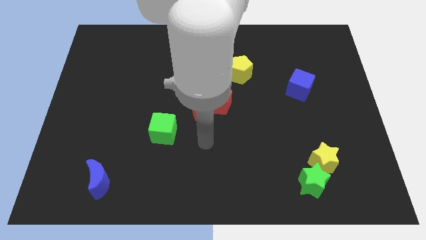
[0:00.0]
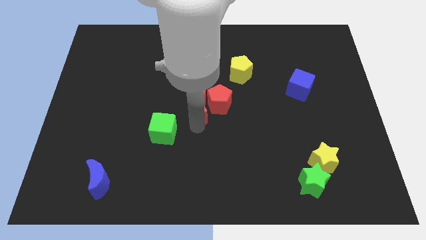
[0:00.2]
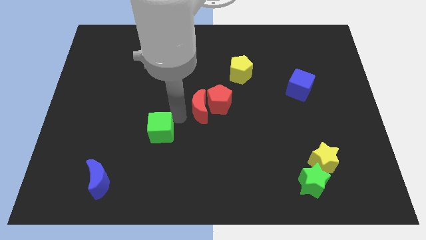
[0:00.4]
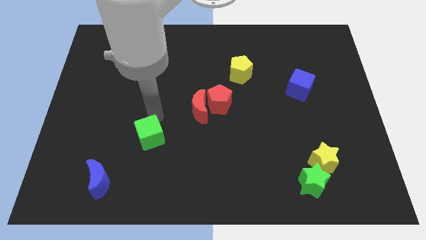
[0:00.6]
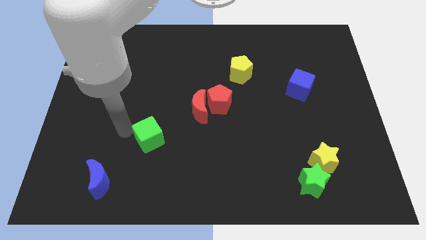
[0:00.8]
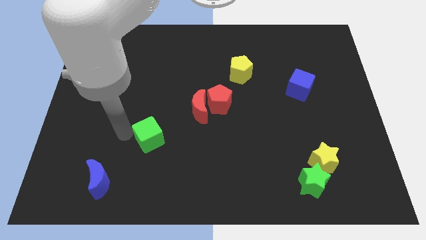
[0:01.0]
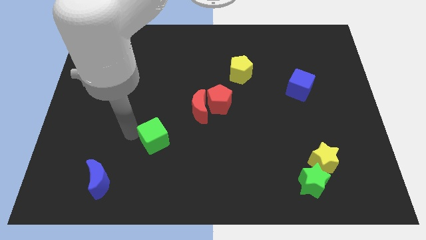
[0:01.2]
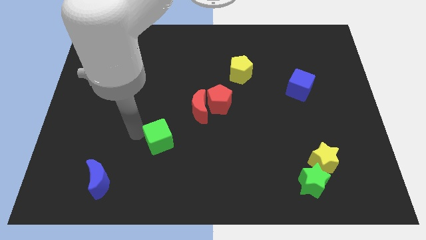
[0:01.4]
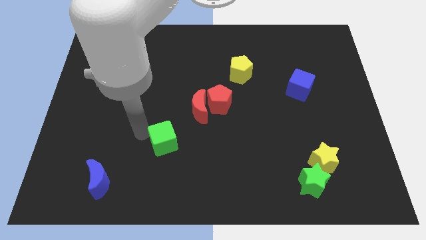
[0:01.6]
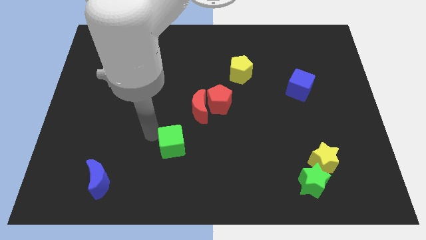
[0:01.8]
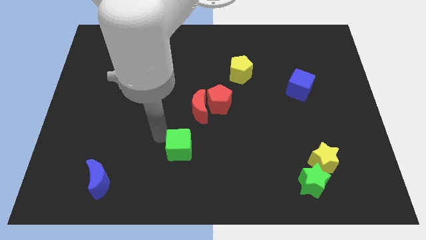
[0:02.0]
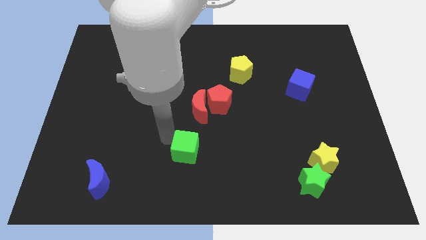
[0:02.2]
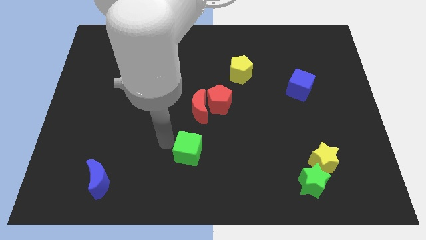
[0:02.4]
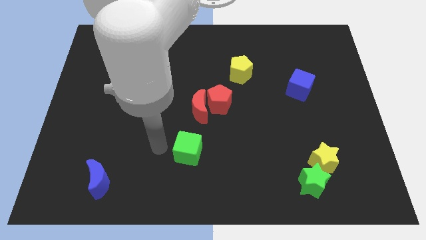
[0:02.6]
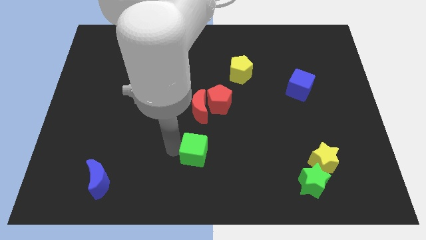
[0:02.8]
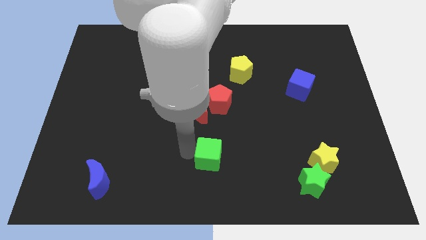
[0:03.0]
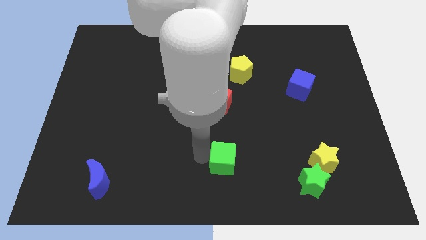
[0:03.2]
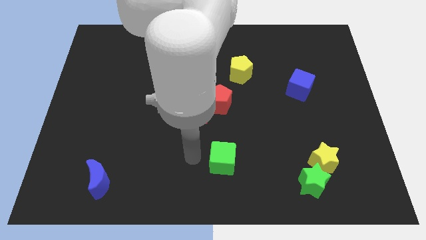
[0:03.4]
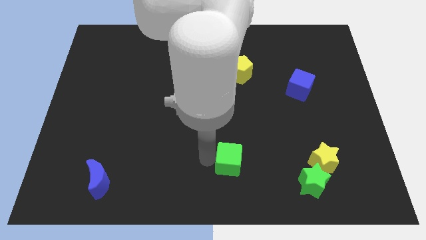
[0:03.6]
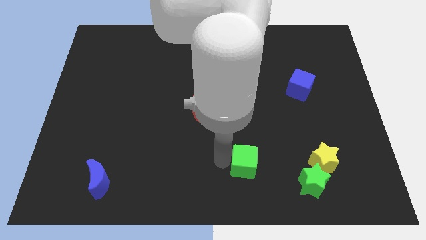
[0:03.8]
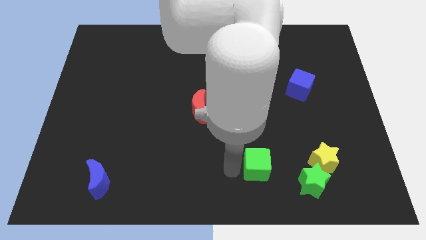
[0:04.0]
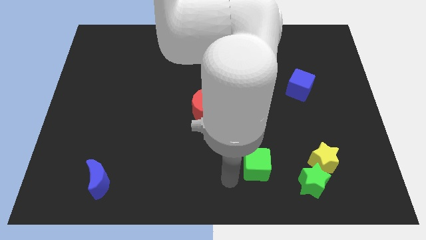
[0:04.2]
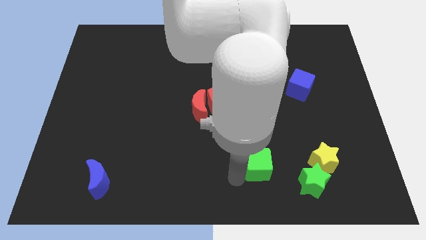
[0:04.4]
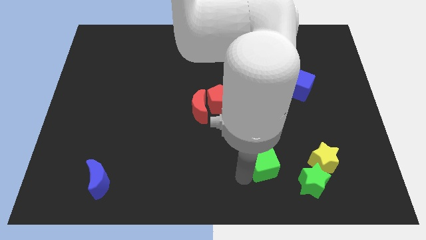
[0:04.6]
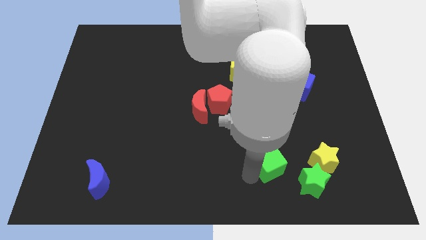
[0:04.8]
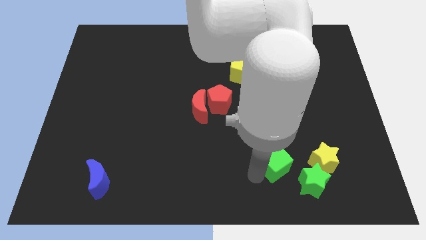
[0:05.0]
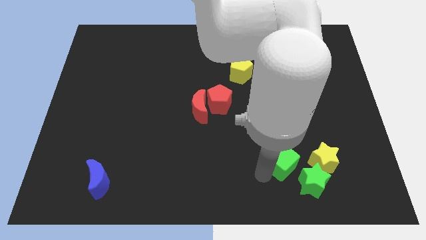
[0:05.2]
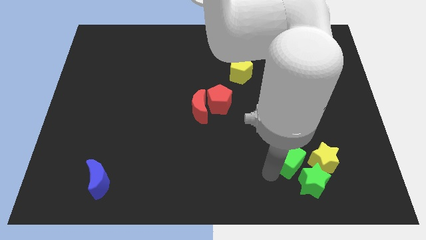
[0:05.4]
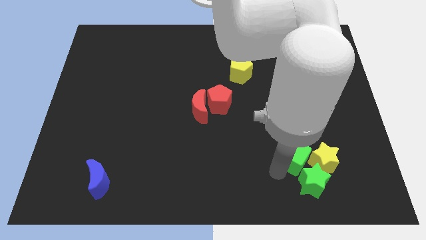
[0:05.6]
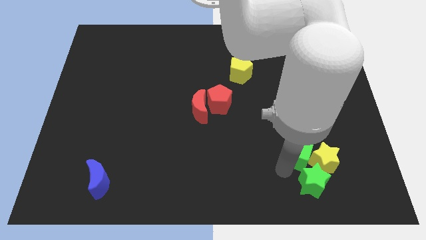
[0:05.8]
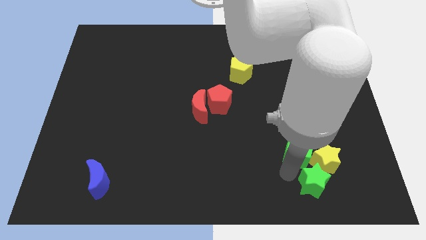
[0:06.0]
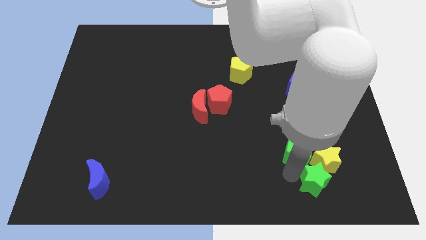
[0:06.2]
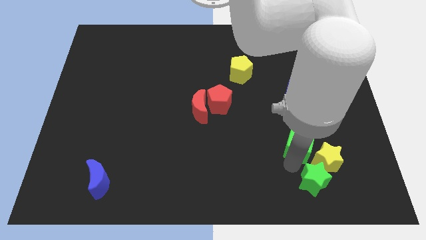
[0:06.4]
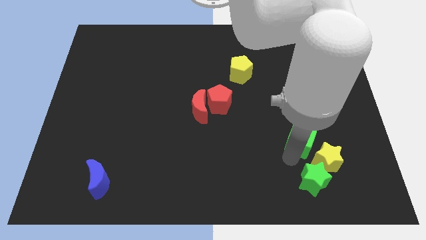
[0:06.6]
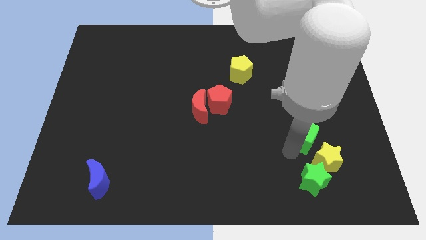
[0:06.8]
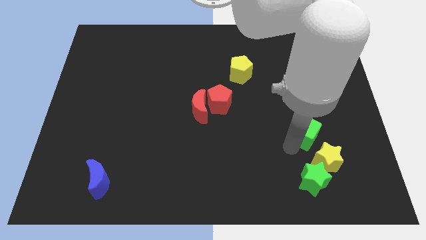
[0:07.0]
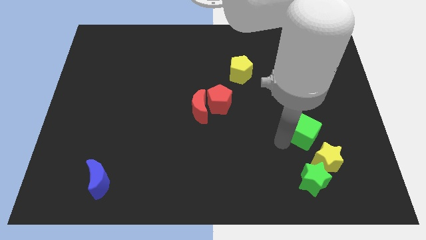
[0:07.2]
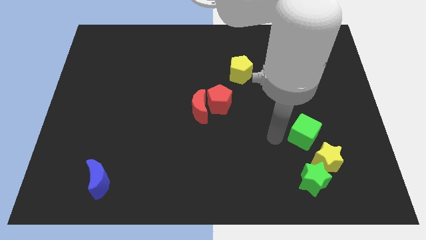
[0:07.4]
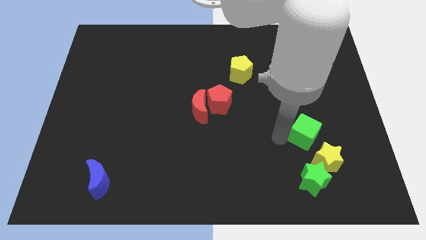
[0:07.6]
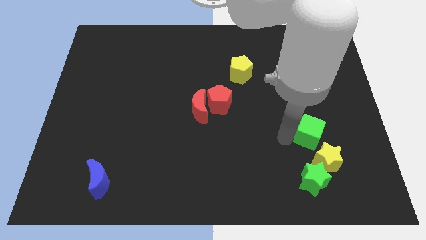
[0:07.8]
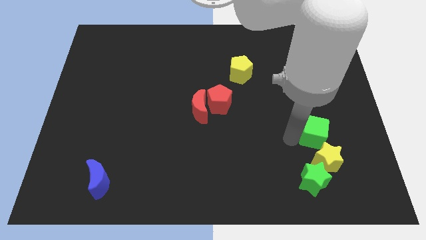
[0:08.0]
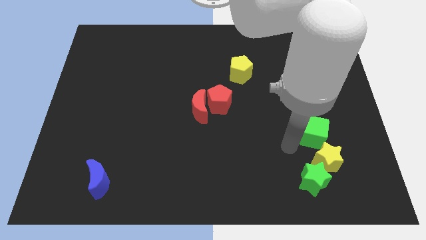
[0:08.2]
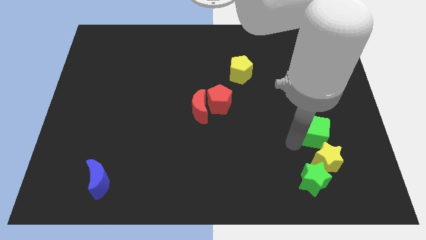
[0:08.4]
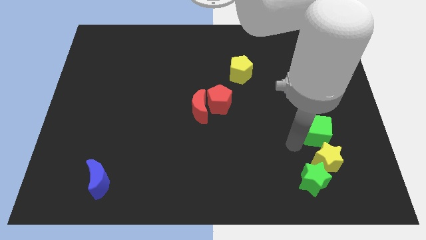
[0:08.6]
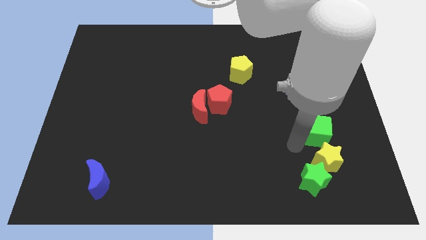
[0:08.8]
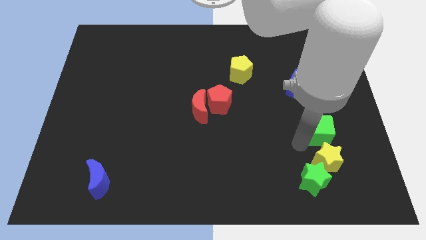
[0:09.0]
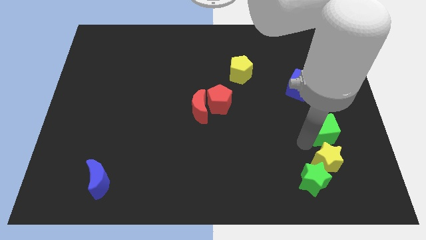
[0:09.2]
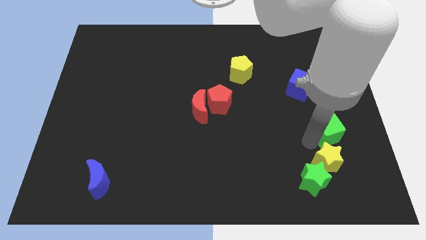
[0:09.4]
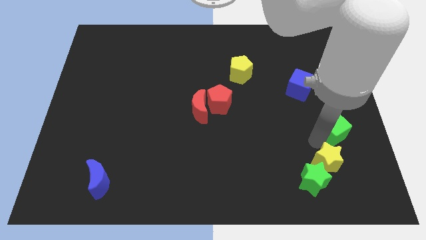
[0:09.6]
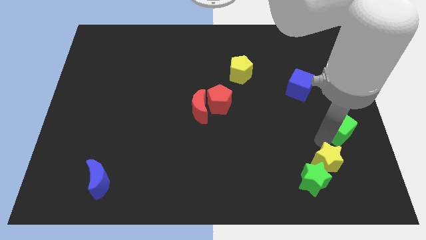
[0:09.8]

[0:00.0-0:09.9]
push the green cube to the center right

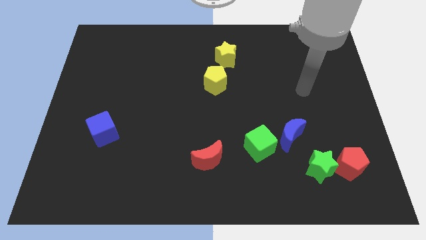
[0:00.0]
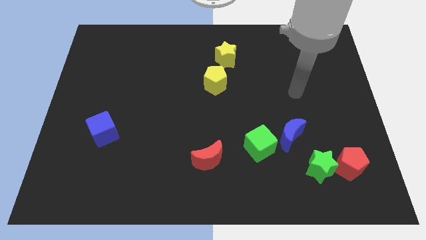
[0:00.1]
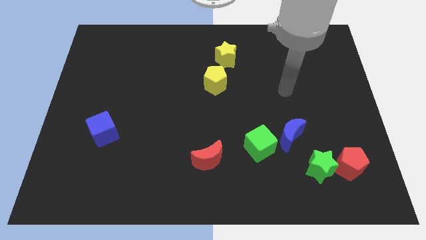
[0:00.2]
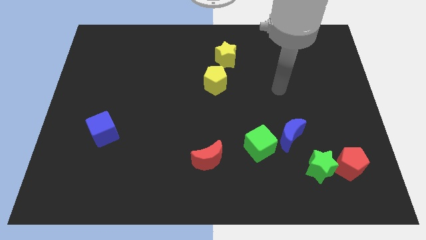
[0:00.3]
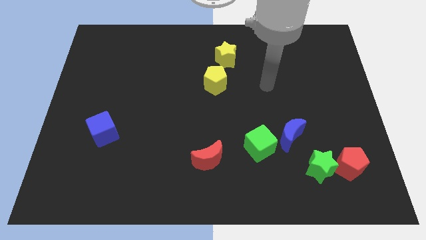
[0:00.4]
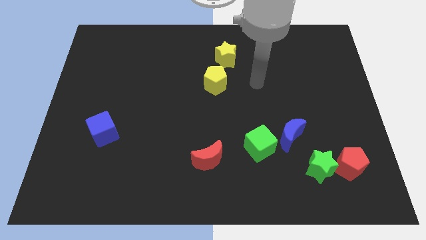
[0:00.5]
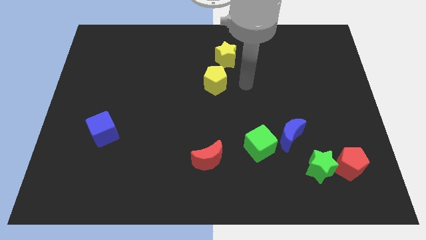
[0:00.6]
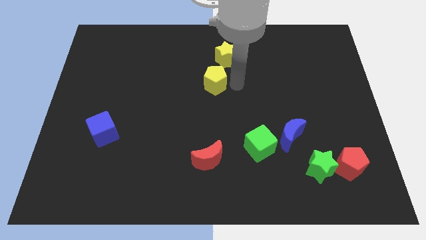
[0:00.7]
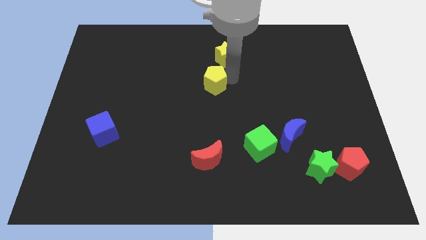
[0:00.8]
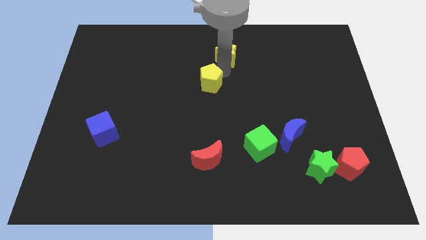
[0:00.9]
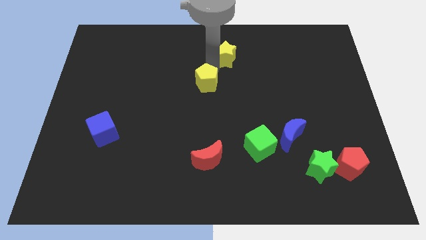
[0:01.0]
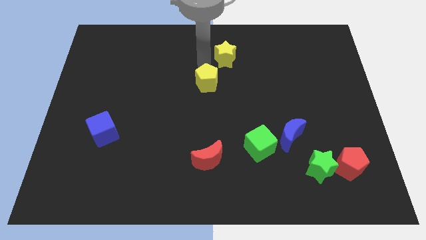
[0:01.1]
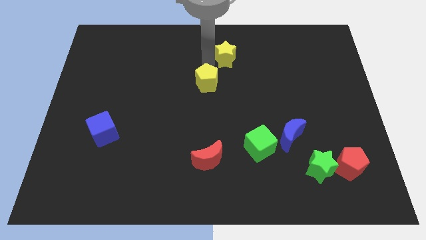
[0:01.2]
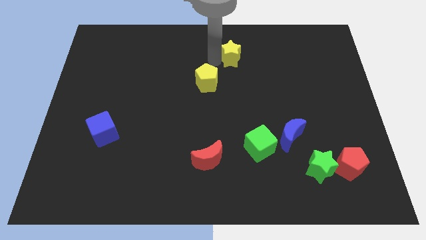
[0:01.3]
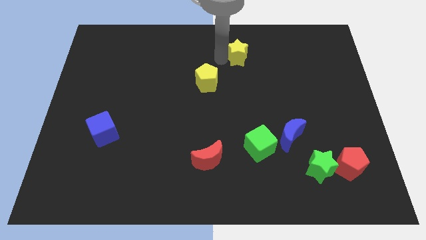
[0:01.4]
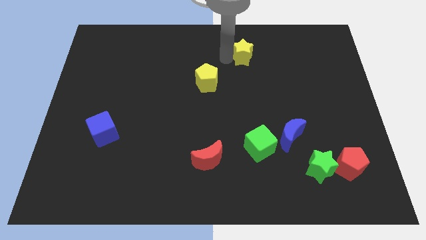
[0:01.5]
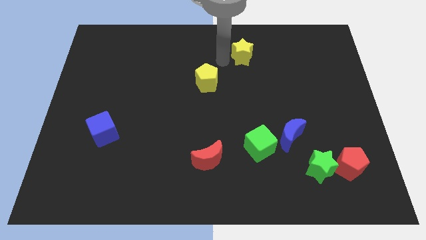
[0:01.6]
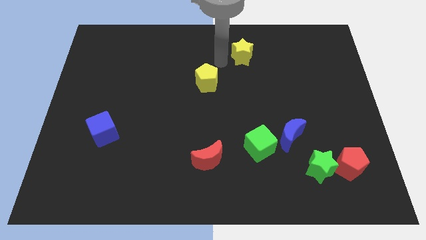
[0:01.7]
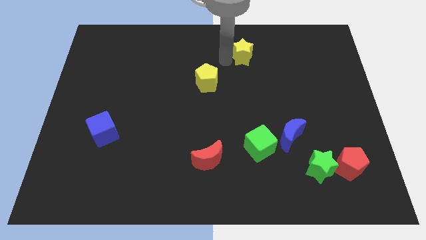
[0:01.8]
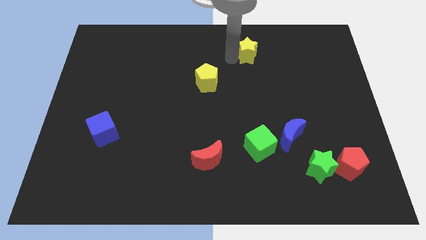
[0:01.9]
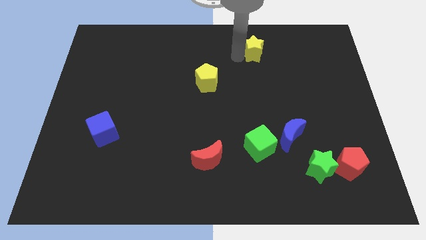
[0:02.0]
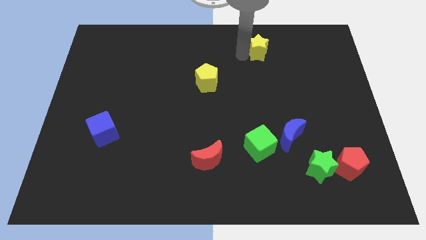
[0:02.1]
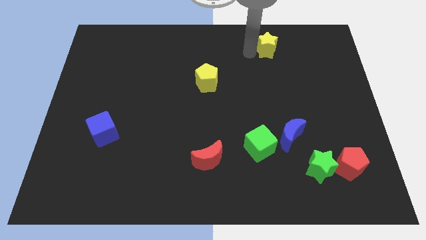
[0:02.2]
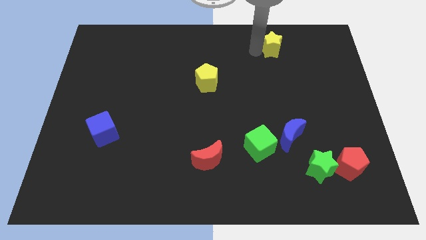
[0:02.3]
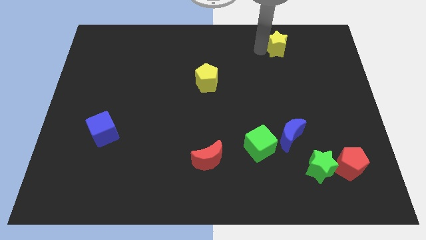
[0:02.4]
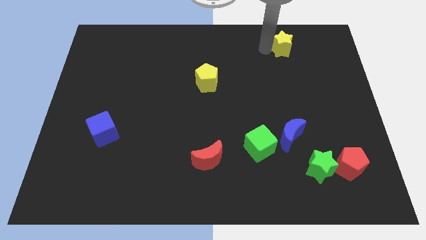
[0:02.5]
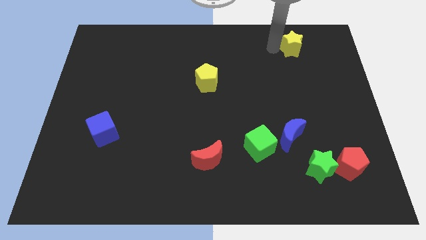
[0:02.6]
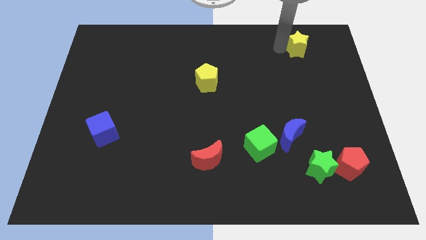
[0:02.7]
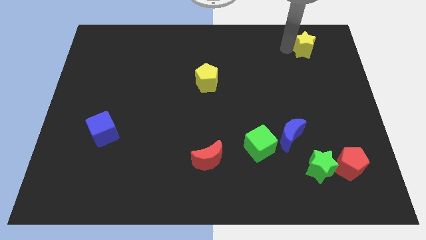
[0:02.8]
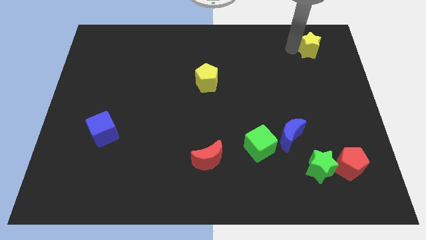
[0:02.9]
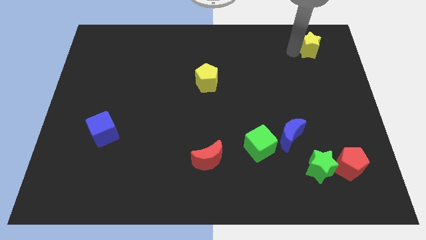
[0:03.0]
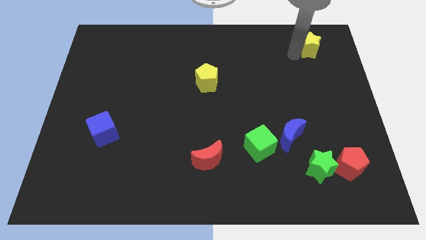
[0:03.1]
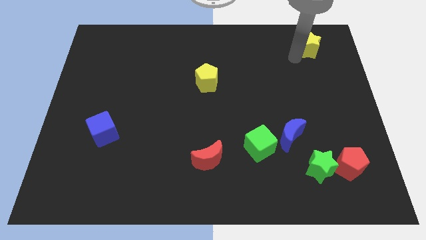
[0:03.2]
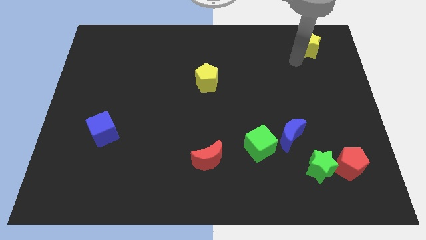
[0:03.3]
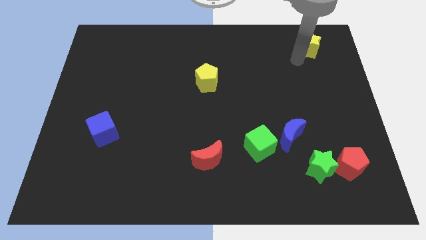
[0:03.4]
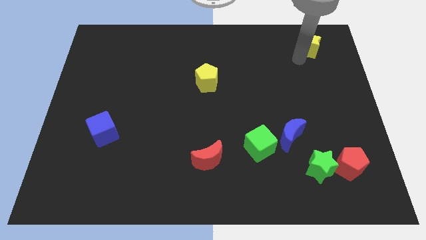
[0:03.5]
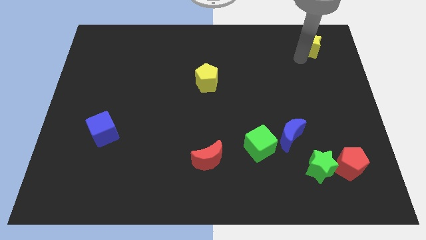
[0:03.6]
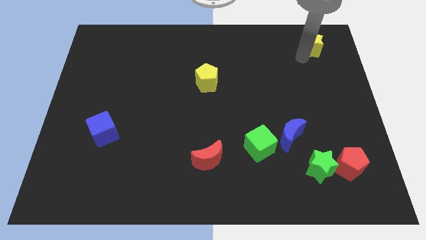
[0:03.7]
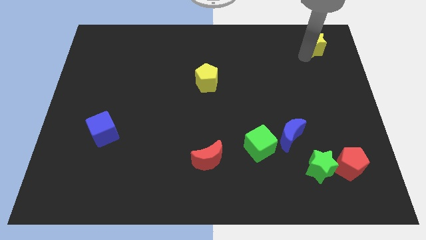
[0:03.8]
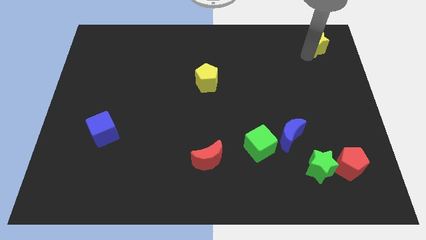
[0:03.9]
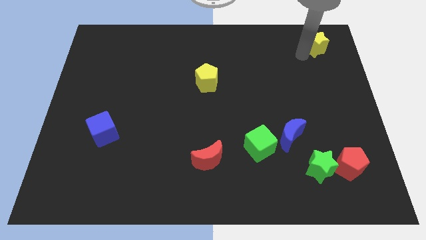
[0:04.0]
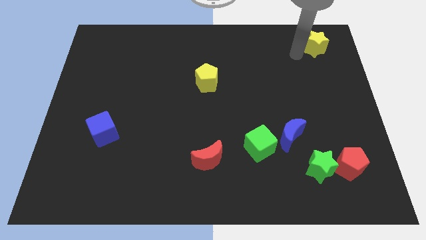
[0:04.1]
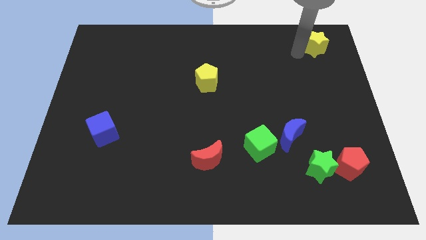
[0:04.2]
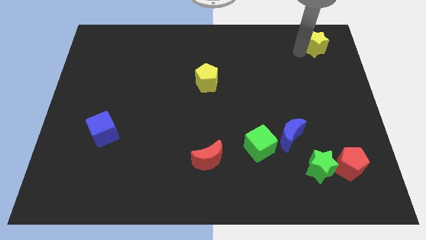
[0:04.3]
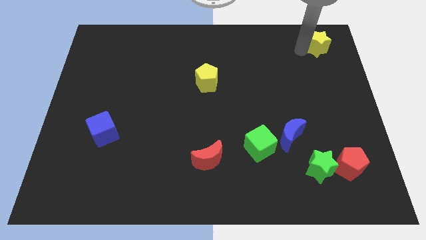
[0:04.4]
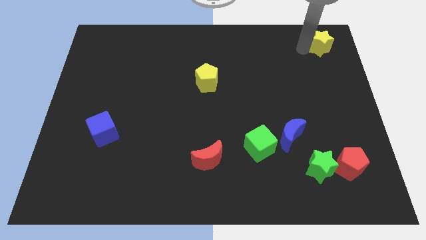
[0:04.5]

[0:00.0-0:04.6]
move the yellow star to the top right corner
